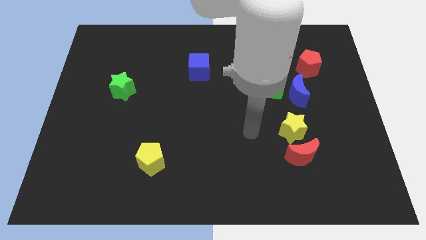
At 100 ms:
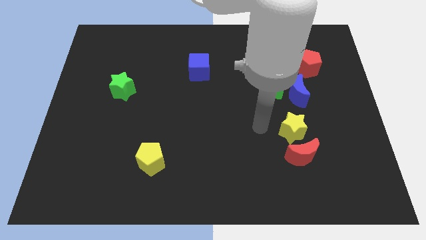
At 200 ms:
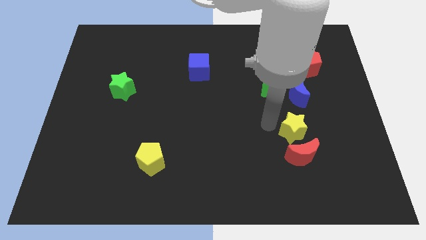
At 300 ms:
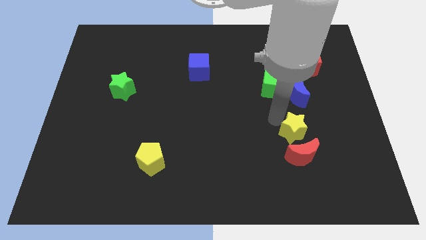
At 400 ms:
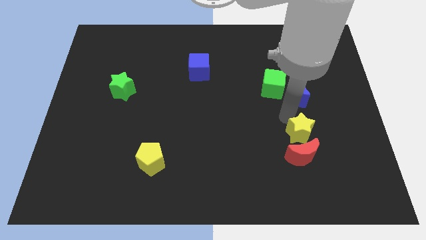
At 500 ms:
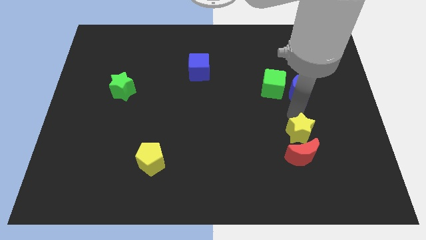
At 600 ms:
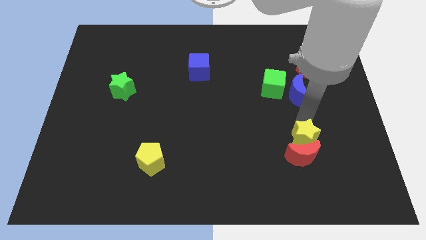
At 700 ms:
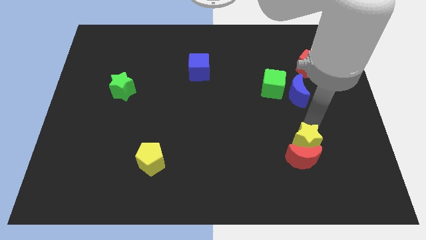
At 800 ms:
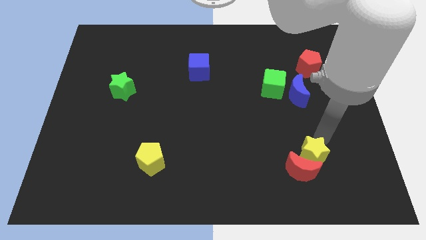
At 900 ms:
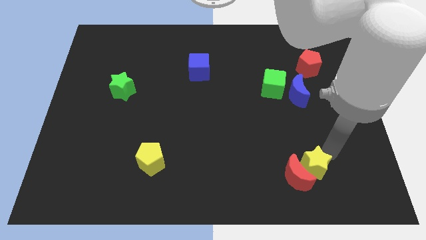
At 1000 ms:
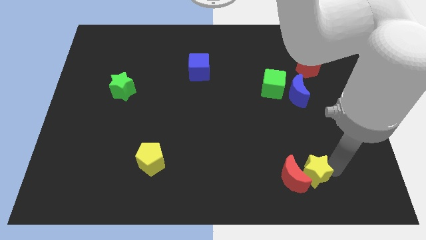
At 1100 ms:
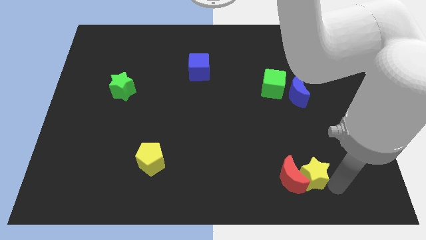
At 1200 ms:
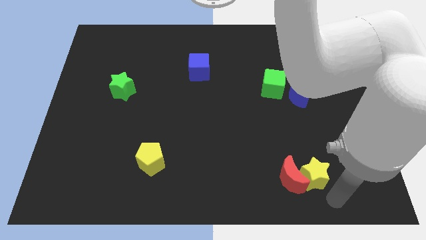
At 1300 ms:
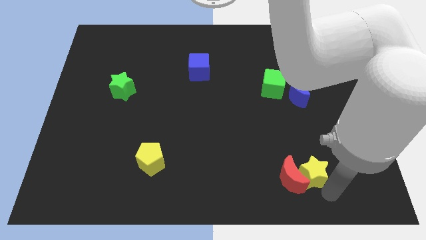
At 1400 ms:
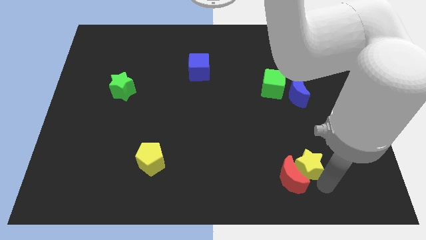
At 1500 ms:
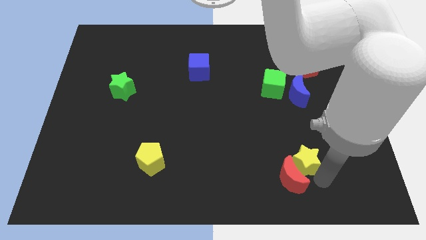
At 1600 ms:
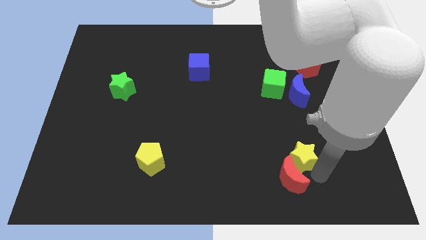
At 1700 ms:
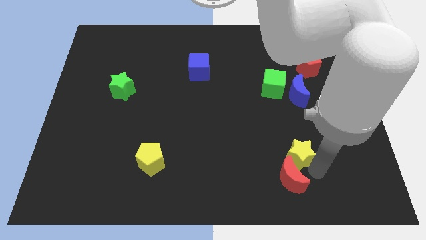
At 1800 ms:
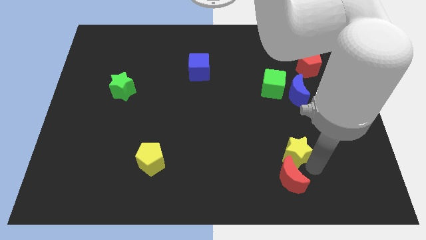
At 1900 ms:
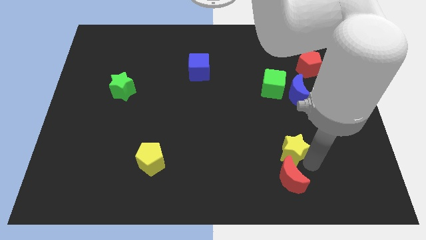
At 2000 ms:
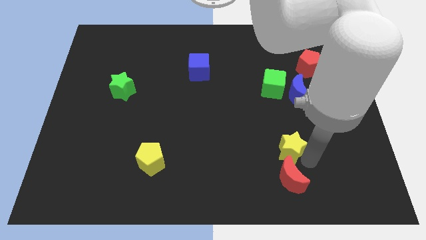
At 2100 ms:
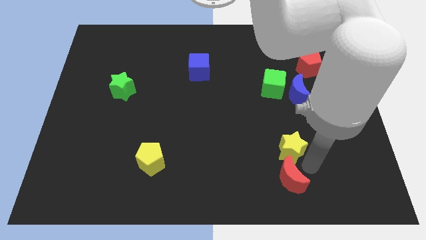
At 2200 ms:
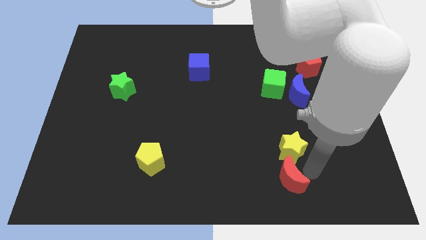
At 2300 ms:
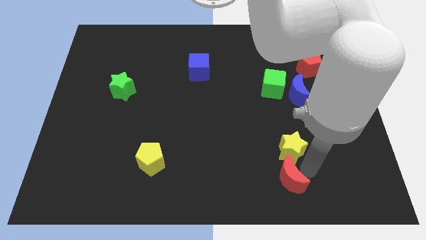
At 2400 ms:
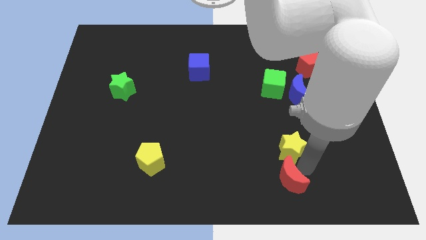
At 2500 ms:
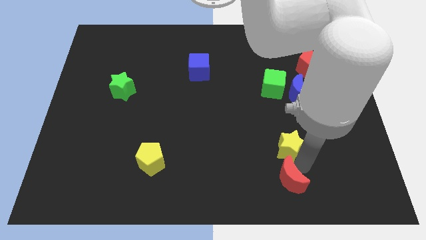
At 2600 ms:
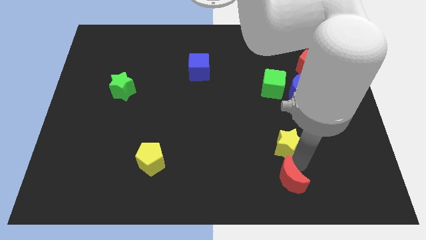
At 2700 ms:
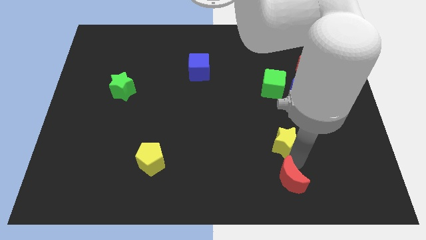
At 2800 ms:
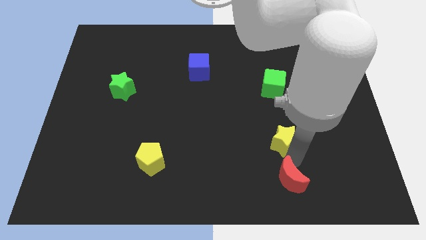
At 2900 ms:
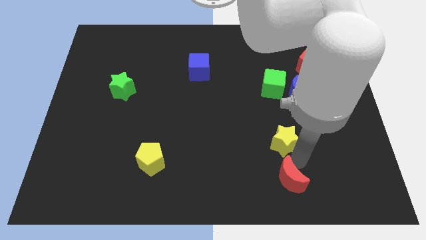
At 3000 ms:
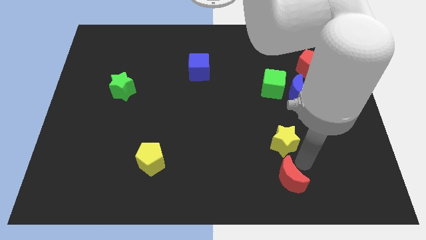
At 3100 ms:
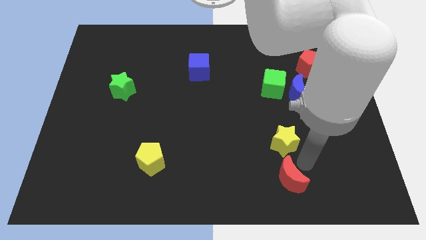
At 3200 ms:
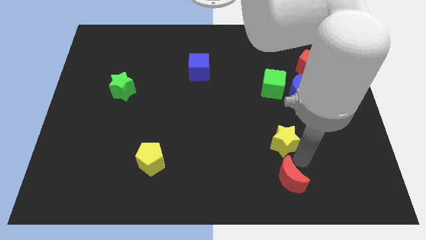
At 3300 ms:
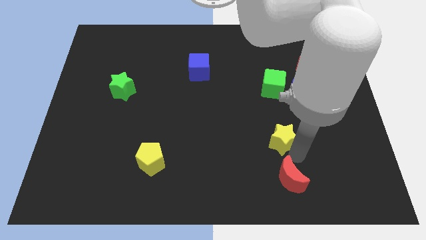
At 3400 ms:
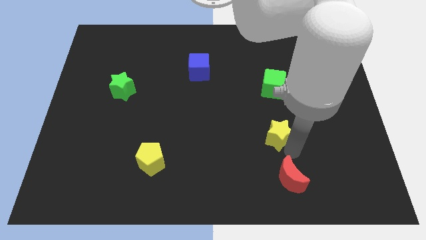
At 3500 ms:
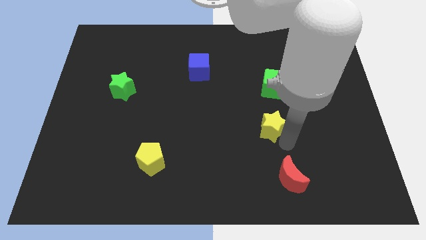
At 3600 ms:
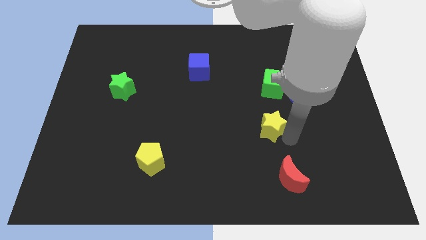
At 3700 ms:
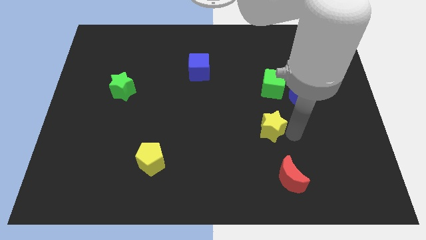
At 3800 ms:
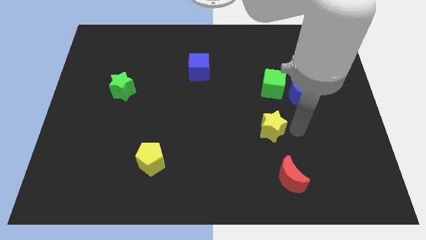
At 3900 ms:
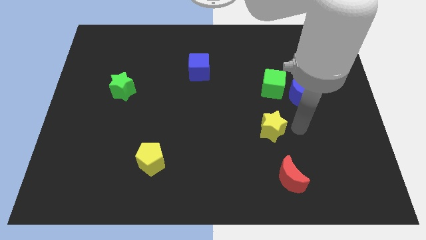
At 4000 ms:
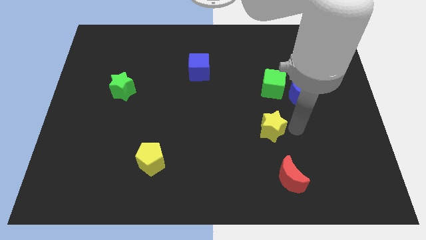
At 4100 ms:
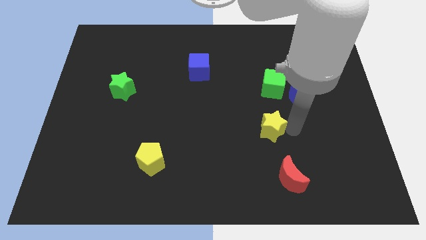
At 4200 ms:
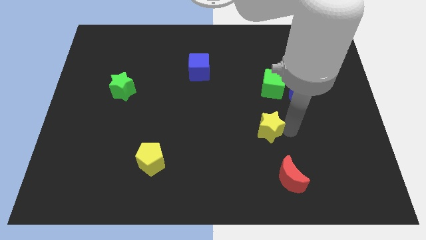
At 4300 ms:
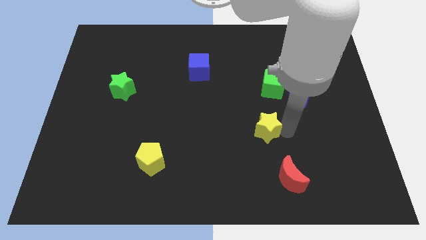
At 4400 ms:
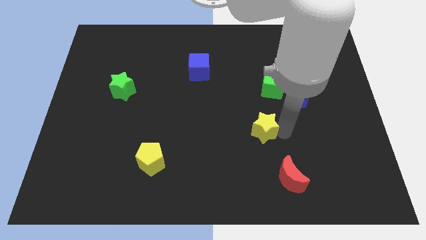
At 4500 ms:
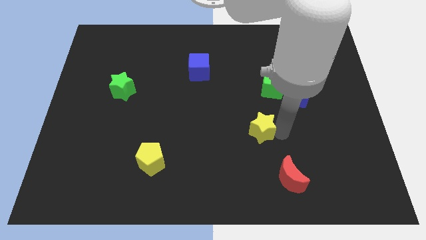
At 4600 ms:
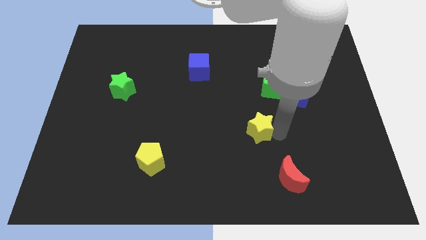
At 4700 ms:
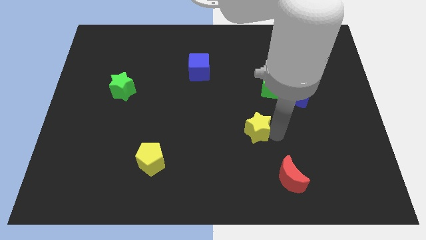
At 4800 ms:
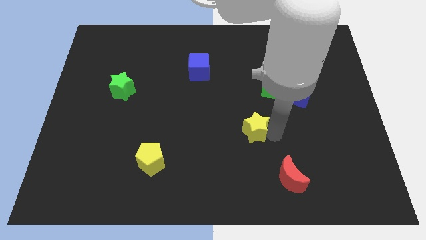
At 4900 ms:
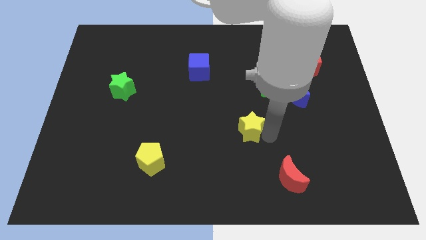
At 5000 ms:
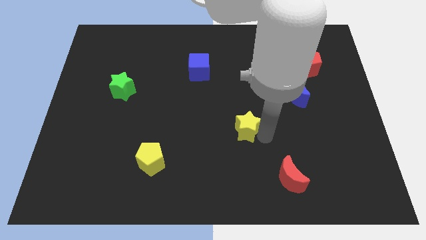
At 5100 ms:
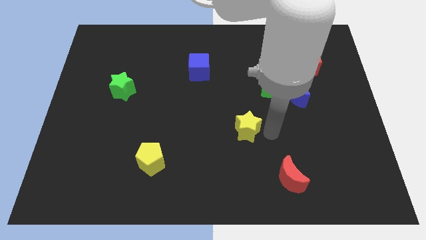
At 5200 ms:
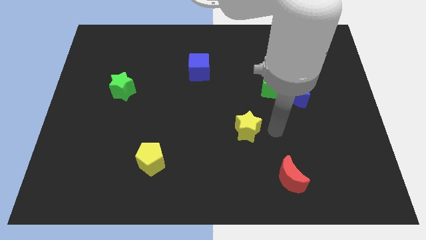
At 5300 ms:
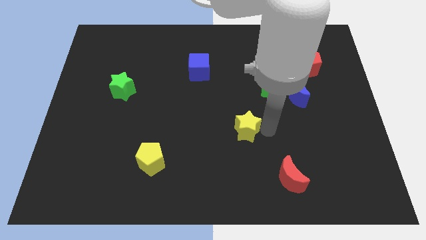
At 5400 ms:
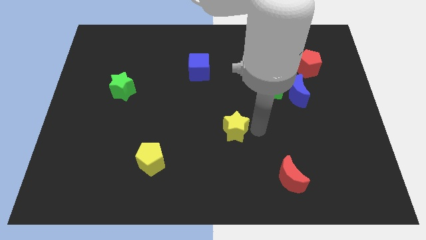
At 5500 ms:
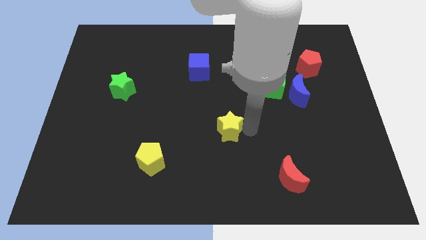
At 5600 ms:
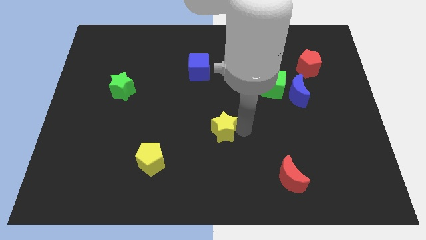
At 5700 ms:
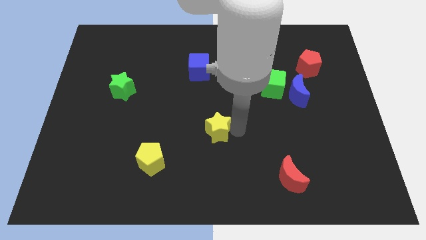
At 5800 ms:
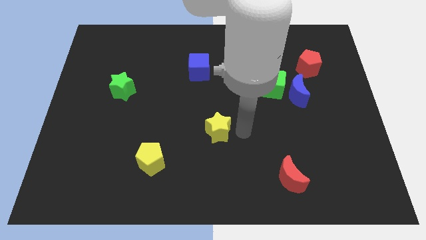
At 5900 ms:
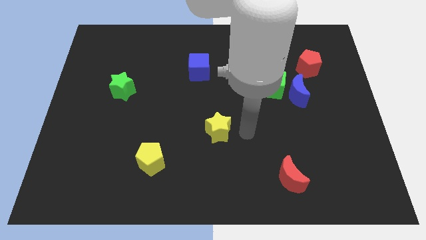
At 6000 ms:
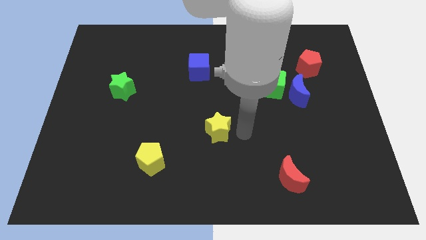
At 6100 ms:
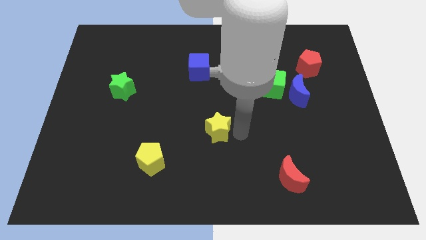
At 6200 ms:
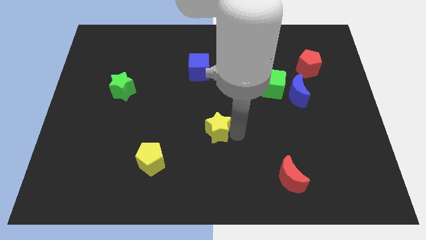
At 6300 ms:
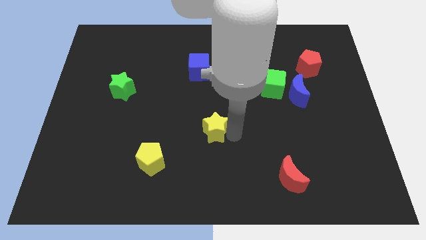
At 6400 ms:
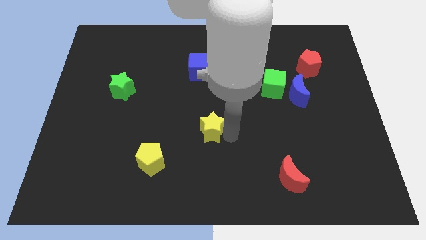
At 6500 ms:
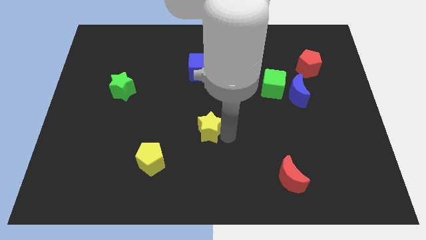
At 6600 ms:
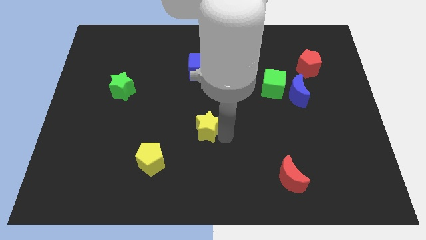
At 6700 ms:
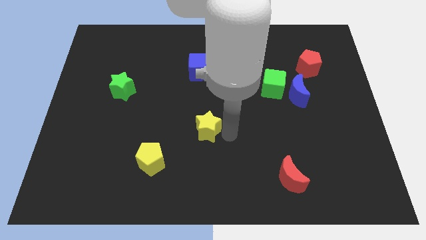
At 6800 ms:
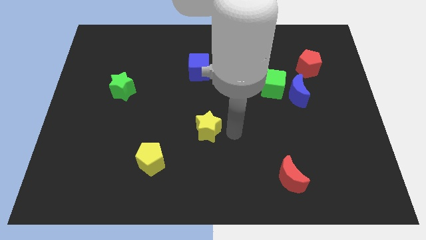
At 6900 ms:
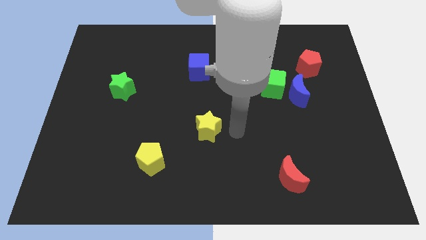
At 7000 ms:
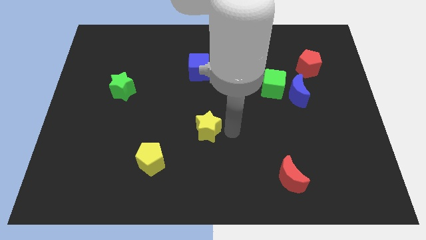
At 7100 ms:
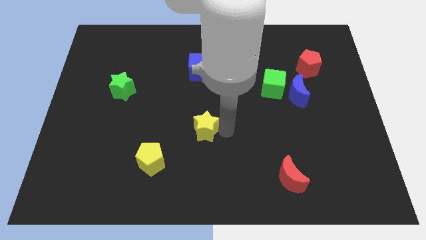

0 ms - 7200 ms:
slide the yellow star left

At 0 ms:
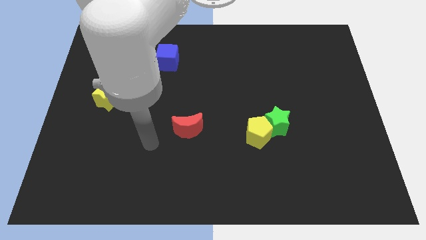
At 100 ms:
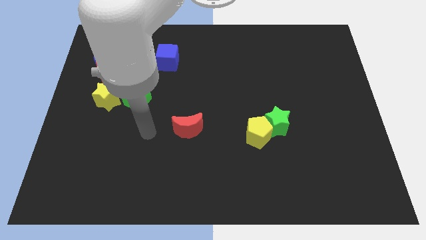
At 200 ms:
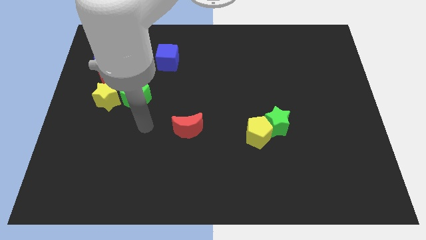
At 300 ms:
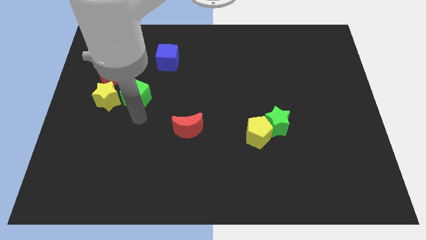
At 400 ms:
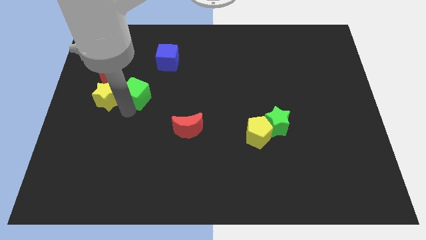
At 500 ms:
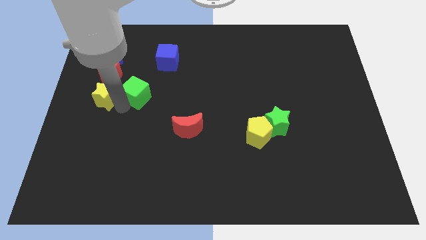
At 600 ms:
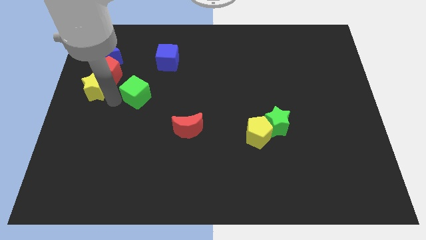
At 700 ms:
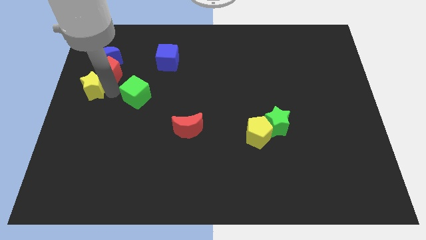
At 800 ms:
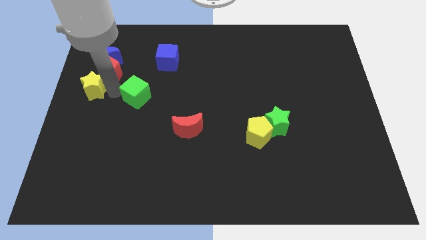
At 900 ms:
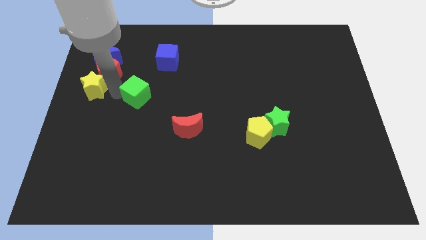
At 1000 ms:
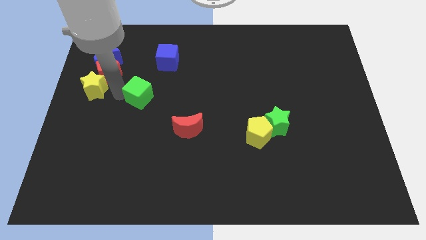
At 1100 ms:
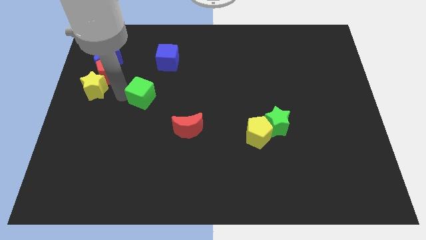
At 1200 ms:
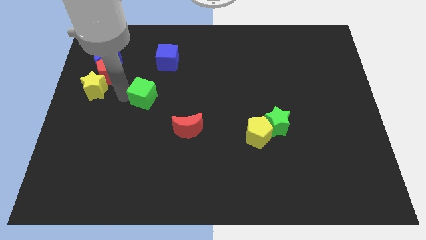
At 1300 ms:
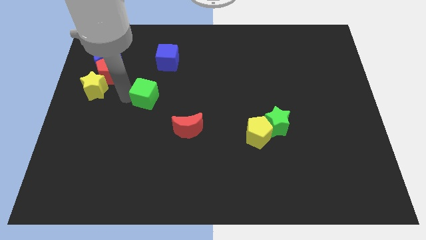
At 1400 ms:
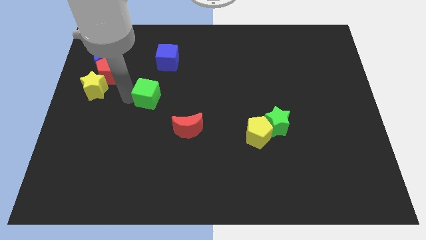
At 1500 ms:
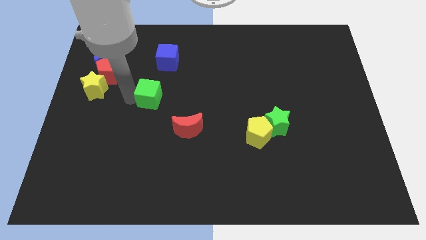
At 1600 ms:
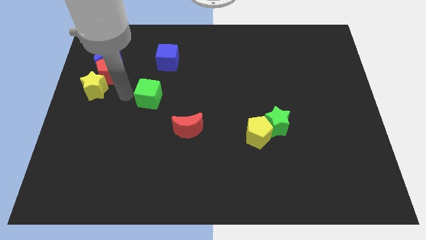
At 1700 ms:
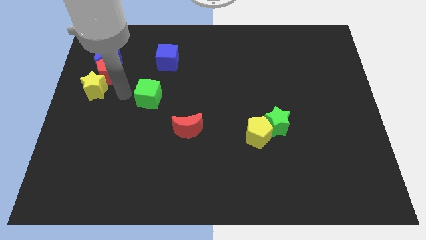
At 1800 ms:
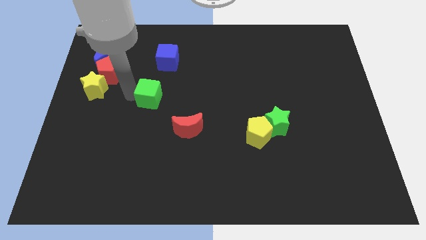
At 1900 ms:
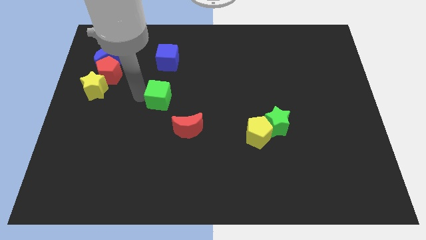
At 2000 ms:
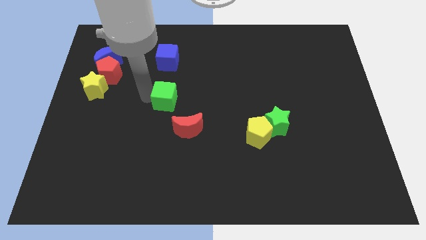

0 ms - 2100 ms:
push the green cube right a little
